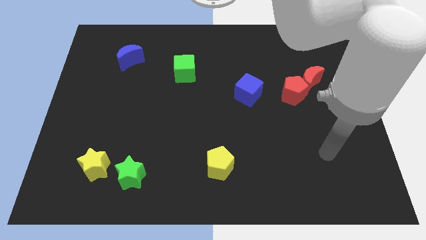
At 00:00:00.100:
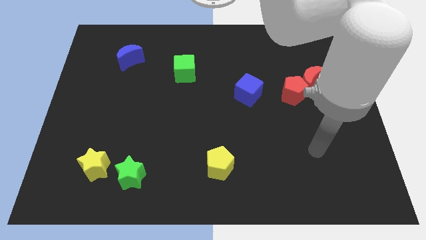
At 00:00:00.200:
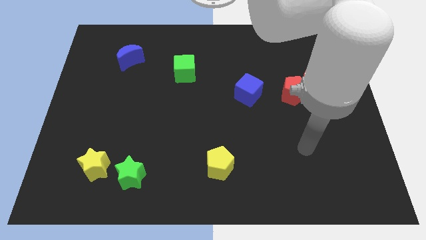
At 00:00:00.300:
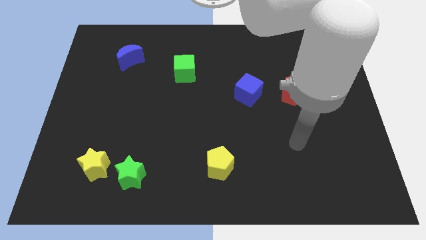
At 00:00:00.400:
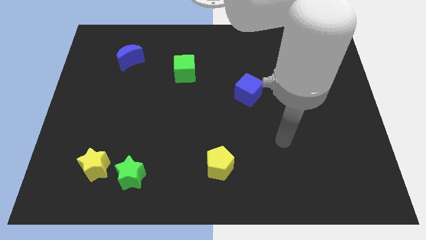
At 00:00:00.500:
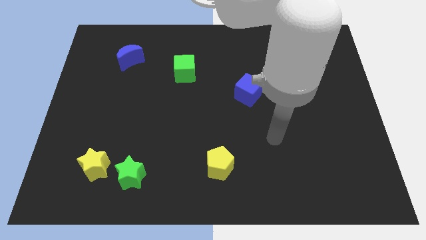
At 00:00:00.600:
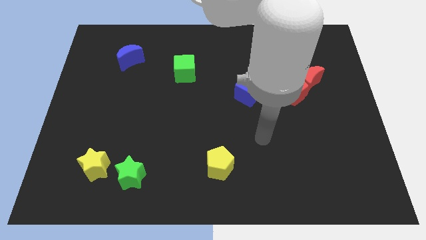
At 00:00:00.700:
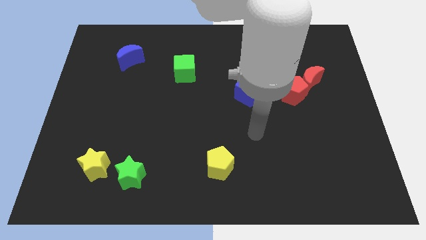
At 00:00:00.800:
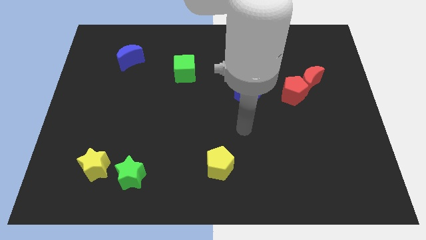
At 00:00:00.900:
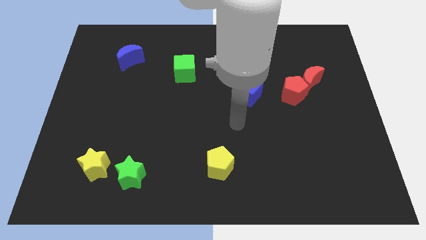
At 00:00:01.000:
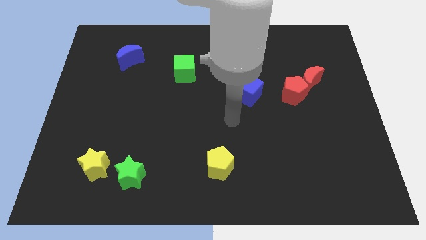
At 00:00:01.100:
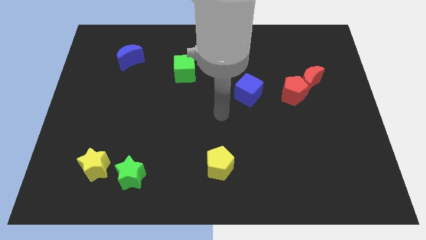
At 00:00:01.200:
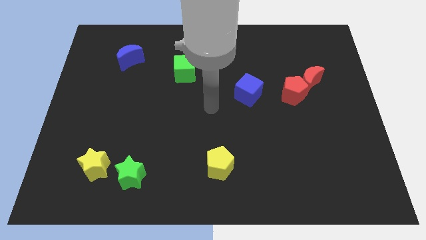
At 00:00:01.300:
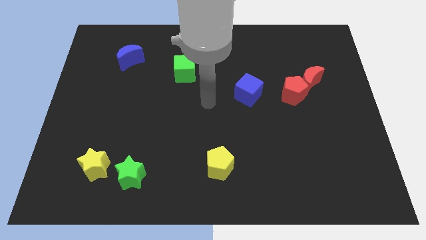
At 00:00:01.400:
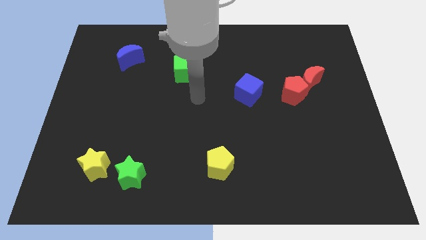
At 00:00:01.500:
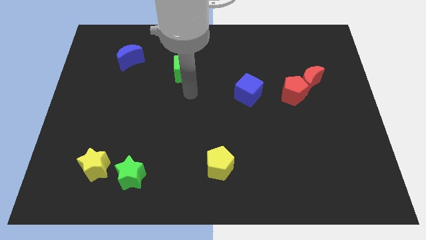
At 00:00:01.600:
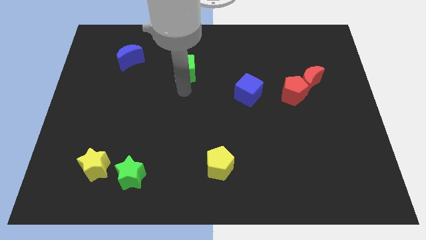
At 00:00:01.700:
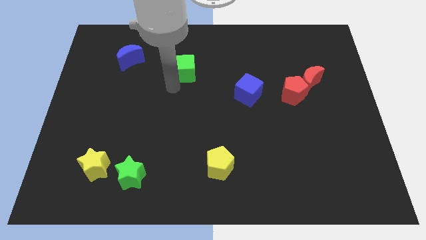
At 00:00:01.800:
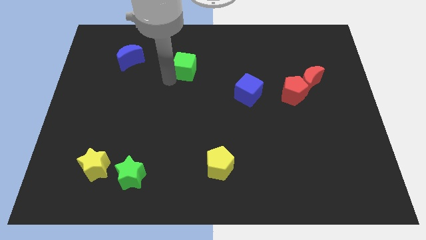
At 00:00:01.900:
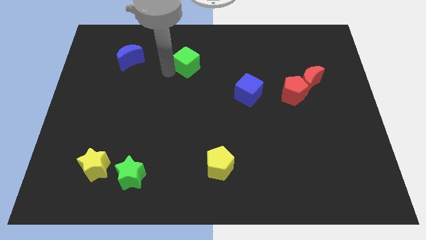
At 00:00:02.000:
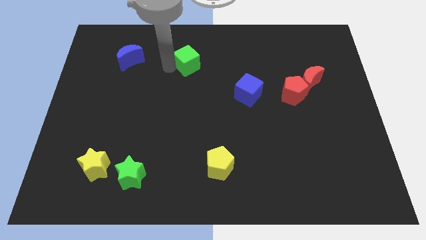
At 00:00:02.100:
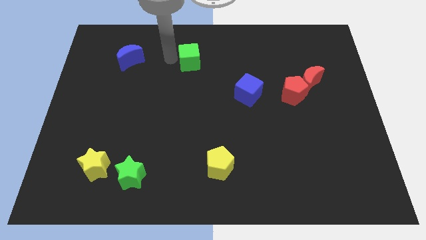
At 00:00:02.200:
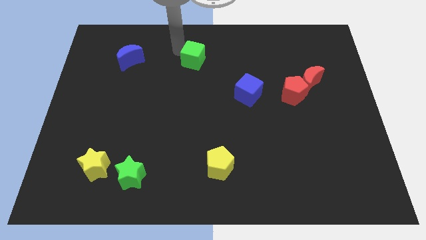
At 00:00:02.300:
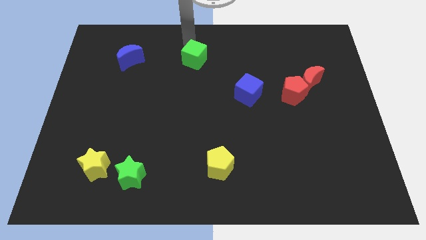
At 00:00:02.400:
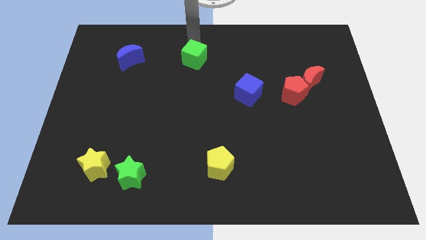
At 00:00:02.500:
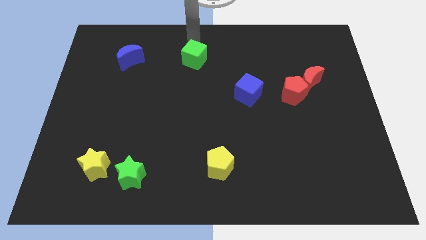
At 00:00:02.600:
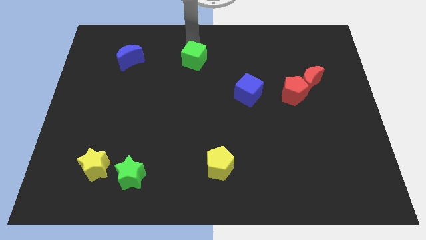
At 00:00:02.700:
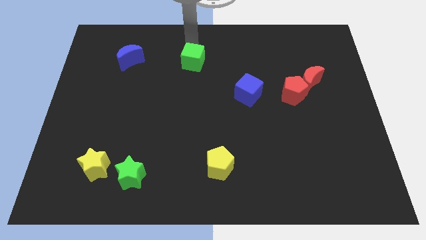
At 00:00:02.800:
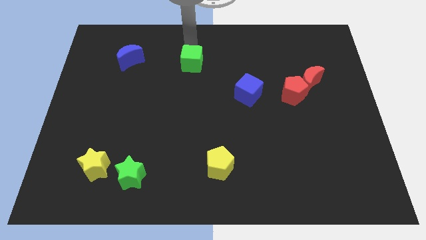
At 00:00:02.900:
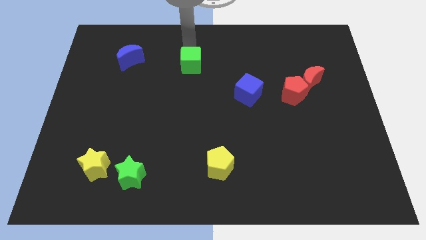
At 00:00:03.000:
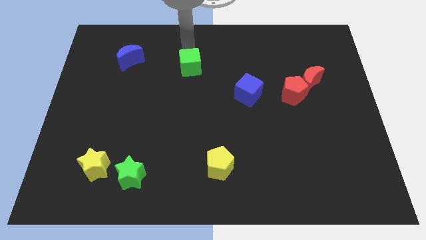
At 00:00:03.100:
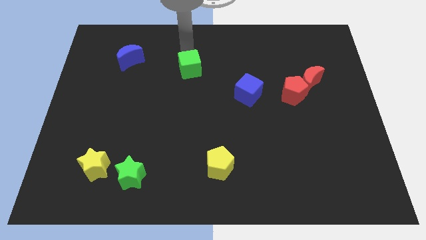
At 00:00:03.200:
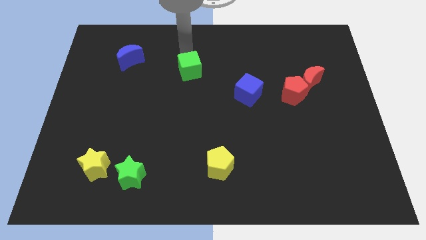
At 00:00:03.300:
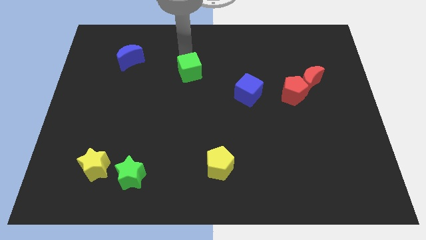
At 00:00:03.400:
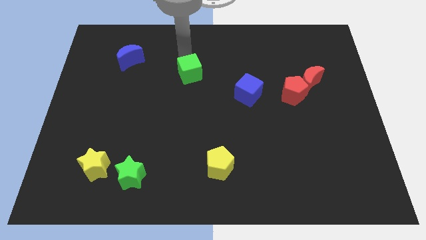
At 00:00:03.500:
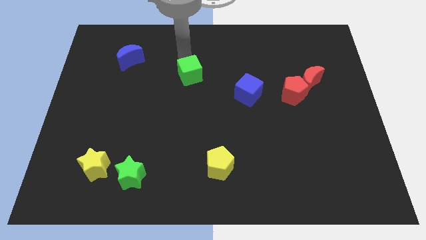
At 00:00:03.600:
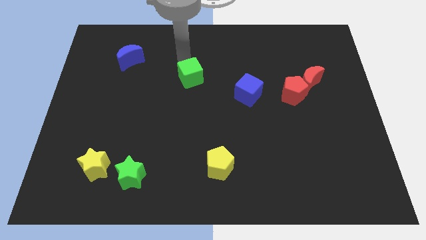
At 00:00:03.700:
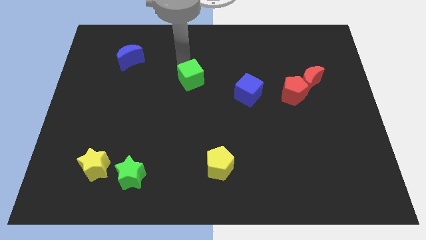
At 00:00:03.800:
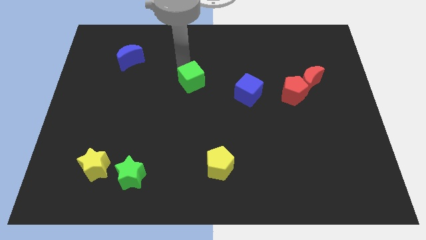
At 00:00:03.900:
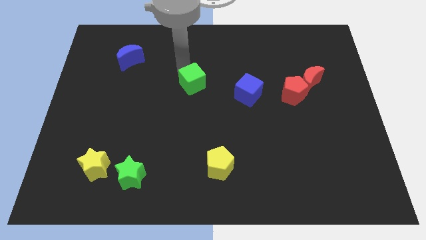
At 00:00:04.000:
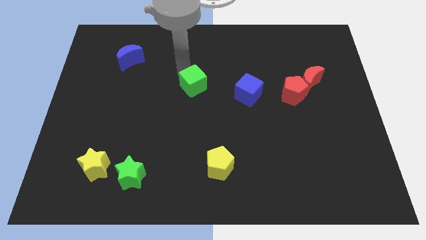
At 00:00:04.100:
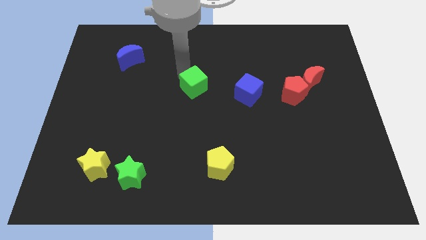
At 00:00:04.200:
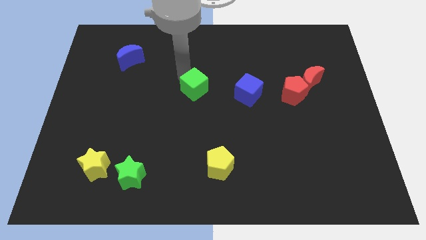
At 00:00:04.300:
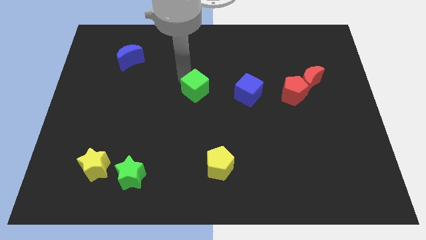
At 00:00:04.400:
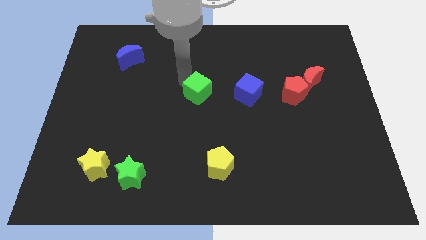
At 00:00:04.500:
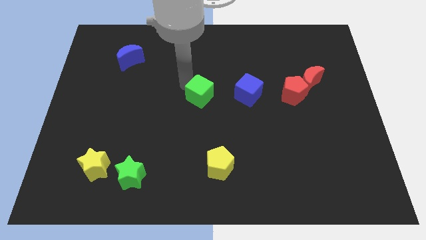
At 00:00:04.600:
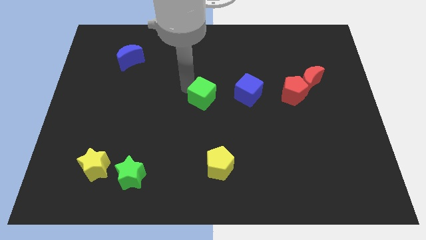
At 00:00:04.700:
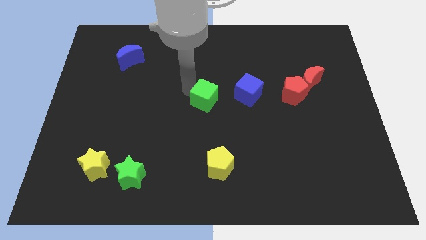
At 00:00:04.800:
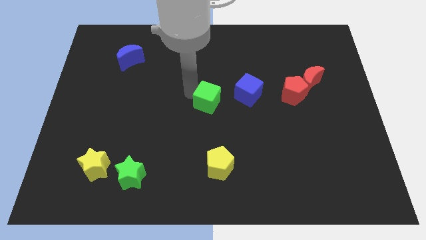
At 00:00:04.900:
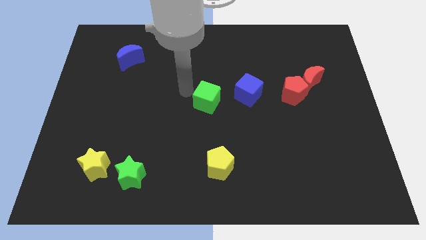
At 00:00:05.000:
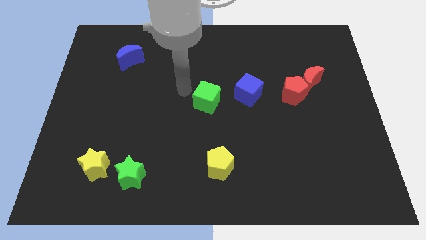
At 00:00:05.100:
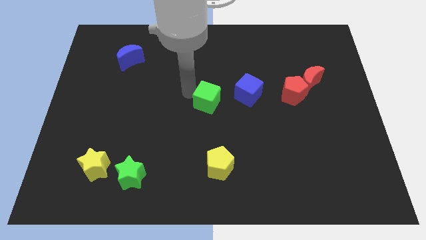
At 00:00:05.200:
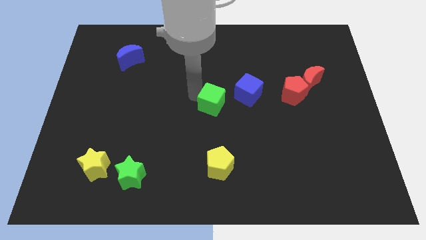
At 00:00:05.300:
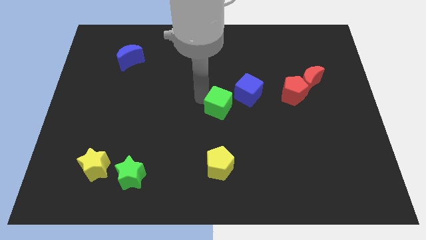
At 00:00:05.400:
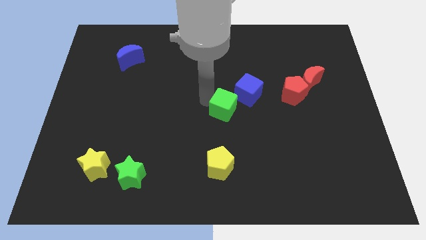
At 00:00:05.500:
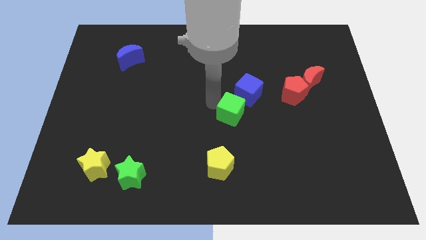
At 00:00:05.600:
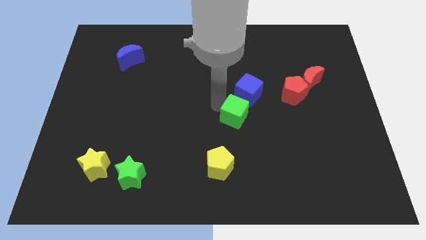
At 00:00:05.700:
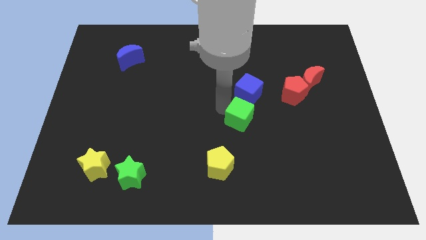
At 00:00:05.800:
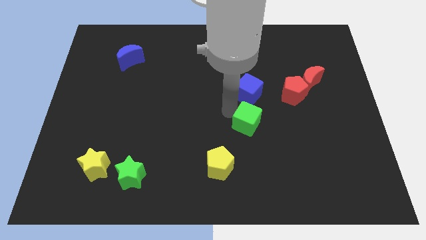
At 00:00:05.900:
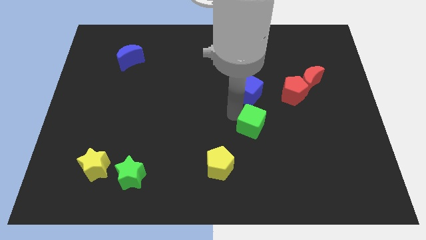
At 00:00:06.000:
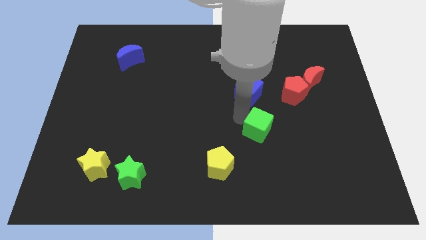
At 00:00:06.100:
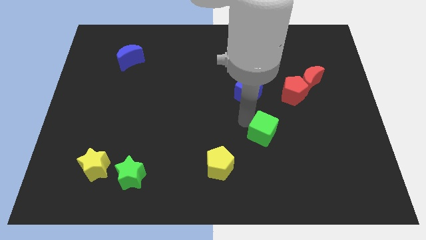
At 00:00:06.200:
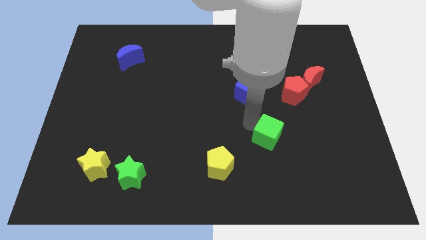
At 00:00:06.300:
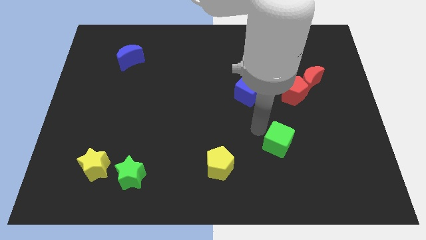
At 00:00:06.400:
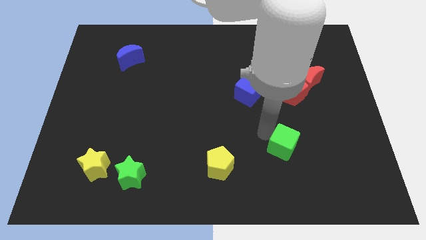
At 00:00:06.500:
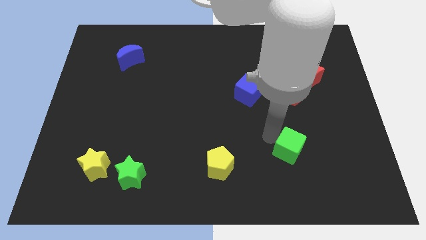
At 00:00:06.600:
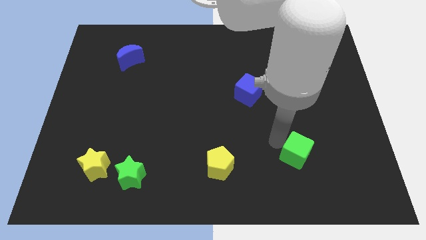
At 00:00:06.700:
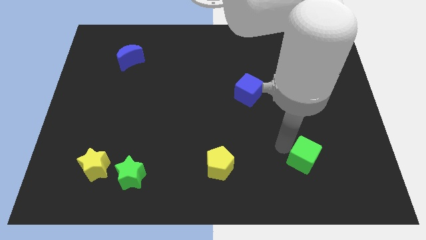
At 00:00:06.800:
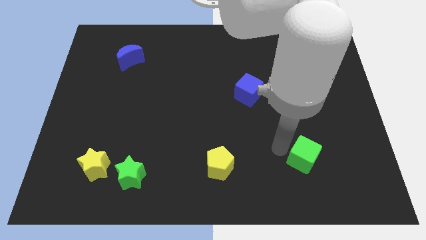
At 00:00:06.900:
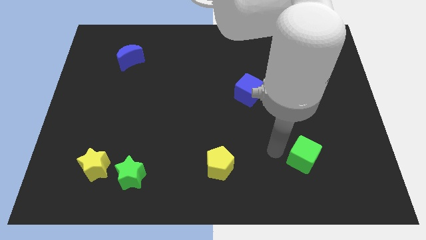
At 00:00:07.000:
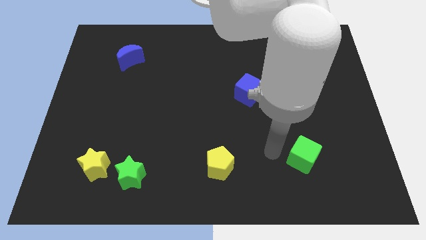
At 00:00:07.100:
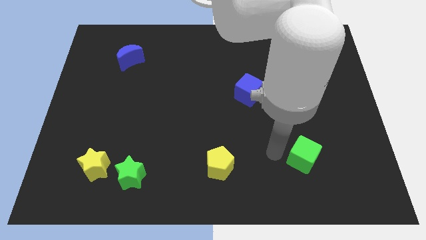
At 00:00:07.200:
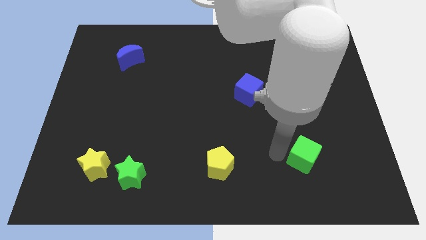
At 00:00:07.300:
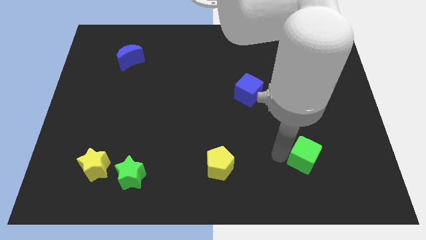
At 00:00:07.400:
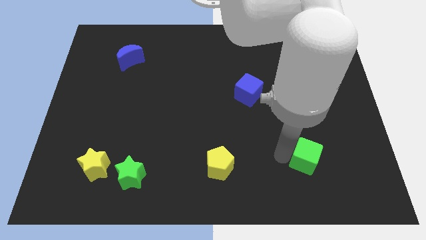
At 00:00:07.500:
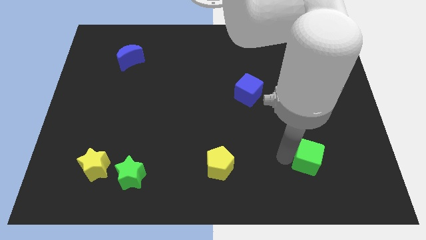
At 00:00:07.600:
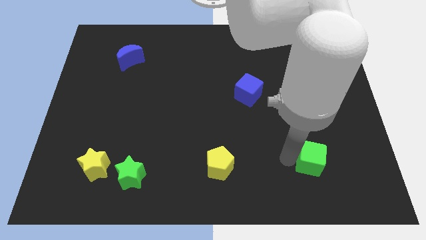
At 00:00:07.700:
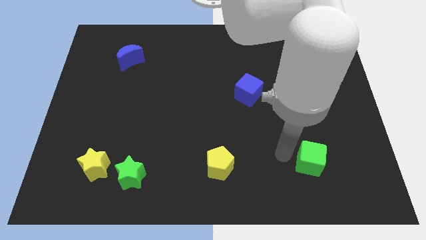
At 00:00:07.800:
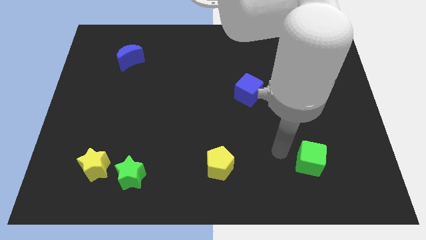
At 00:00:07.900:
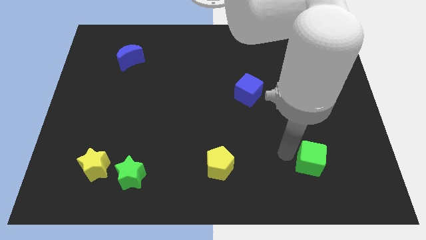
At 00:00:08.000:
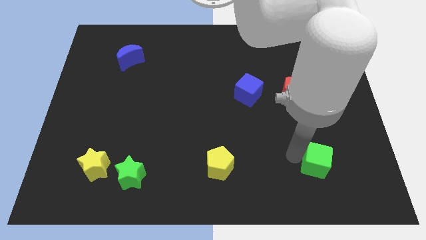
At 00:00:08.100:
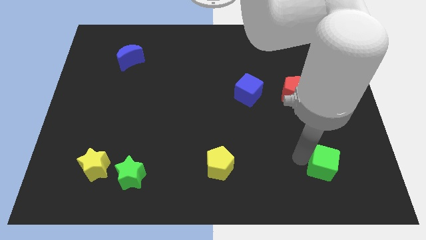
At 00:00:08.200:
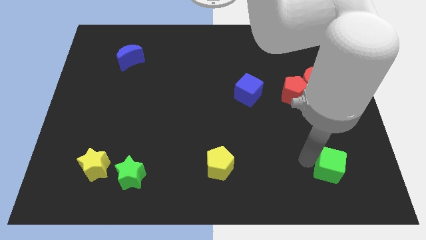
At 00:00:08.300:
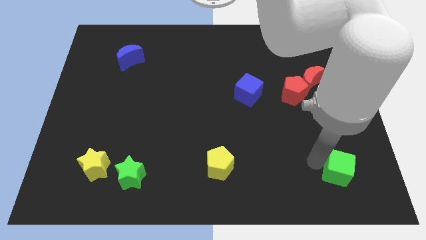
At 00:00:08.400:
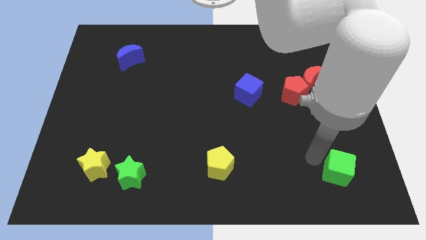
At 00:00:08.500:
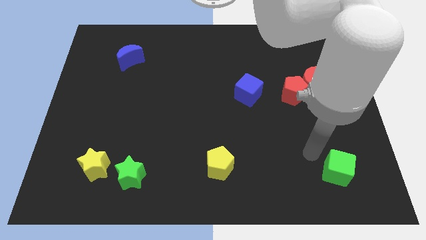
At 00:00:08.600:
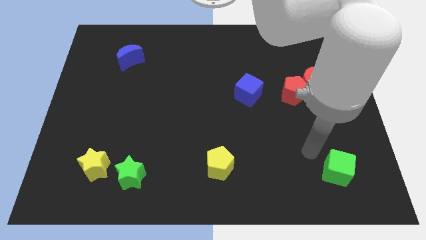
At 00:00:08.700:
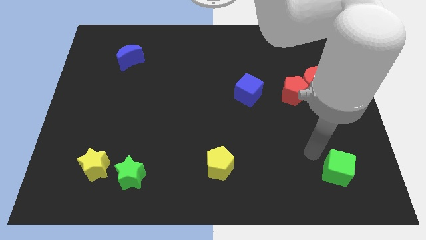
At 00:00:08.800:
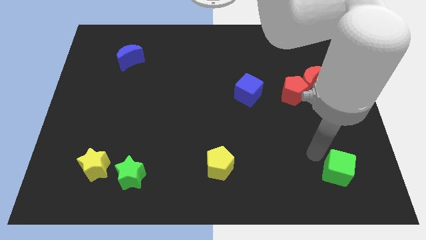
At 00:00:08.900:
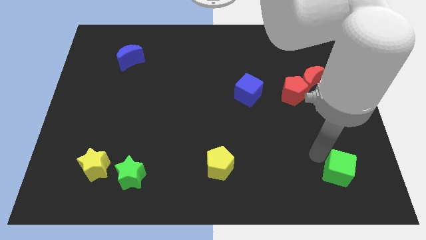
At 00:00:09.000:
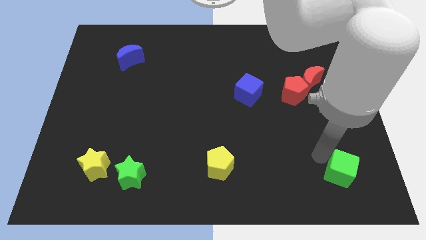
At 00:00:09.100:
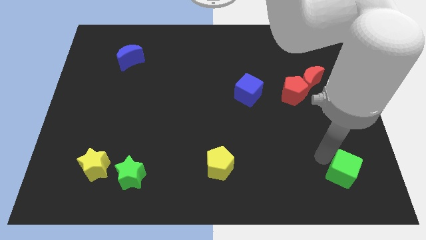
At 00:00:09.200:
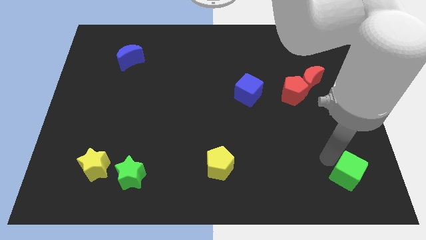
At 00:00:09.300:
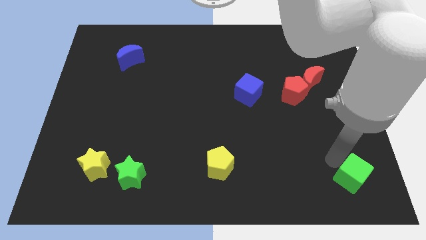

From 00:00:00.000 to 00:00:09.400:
push the green cube to the bottom right of the board
